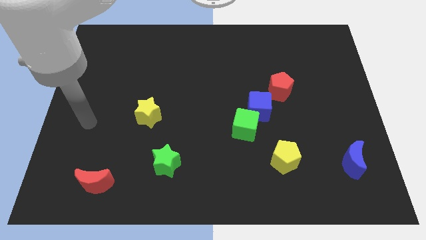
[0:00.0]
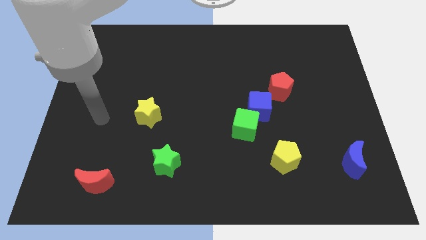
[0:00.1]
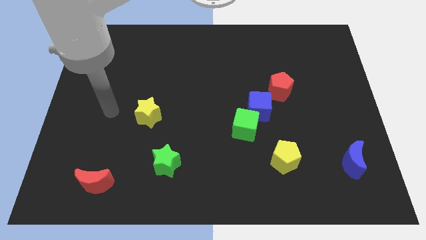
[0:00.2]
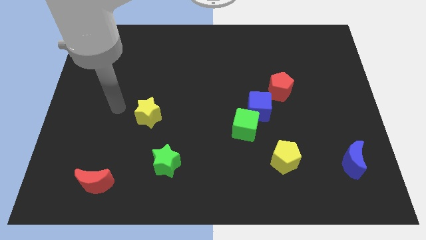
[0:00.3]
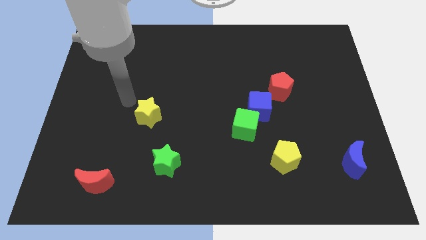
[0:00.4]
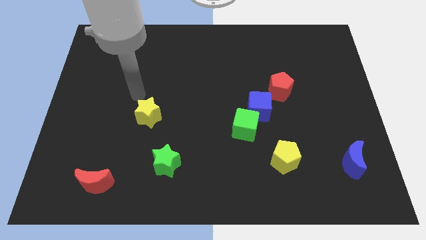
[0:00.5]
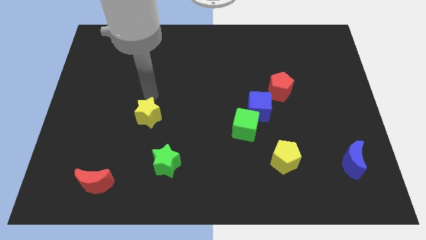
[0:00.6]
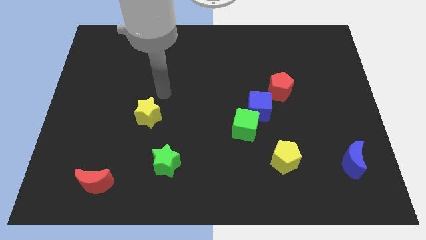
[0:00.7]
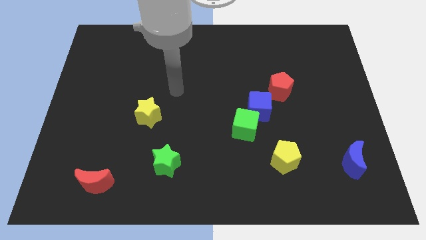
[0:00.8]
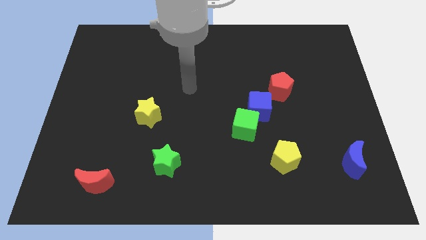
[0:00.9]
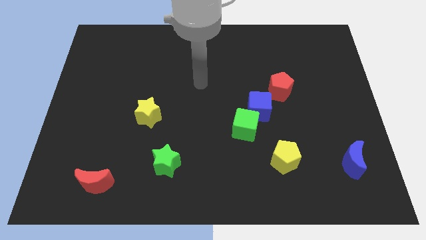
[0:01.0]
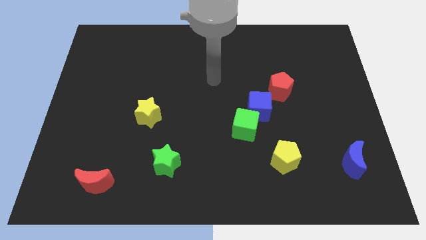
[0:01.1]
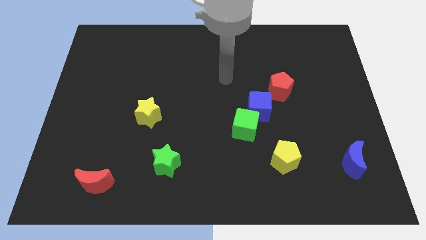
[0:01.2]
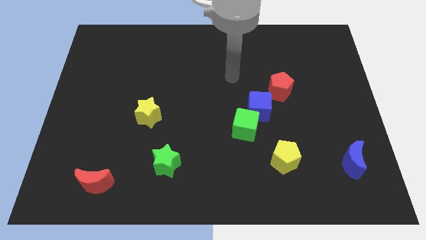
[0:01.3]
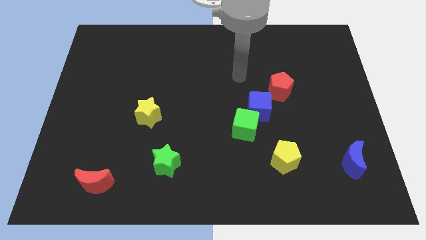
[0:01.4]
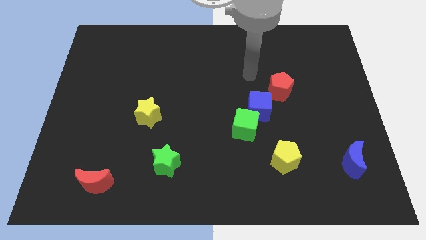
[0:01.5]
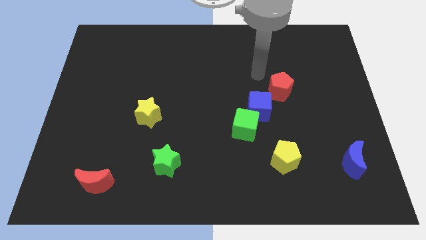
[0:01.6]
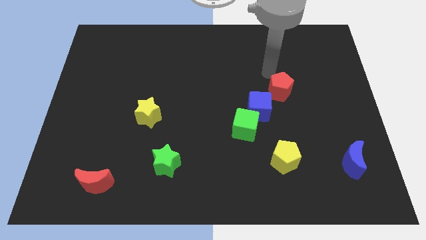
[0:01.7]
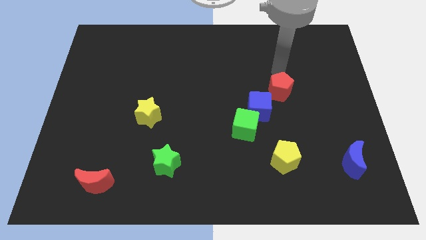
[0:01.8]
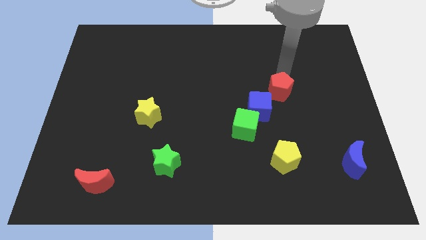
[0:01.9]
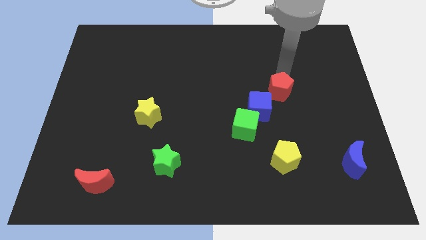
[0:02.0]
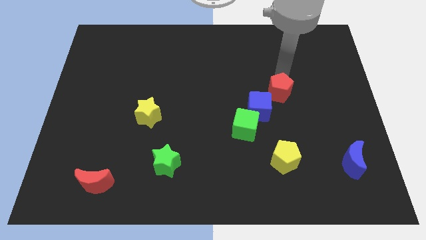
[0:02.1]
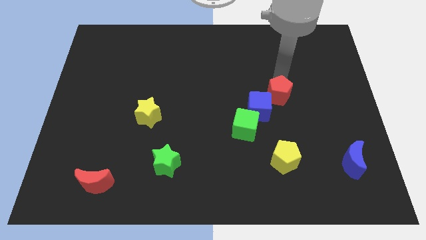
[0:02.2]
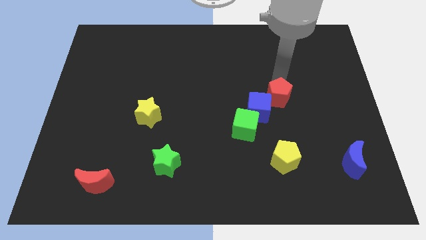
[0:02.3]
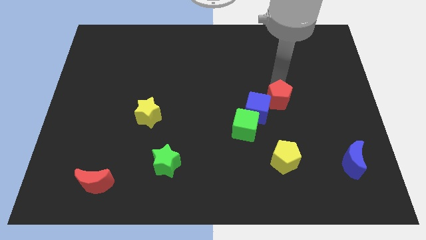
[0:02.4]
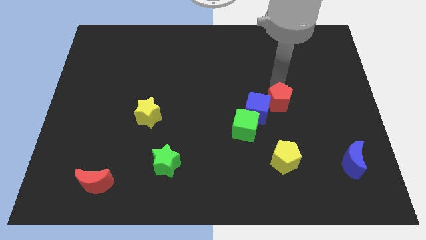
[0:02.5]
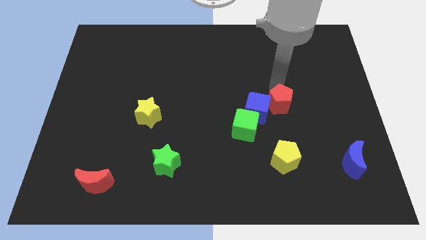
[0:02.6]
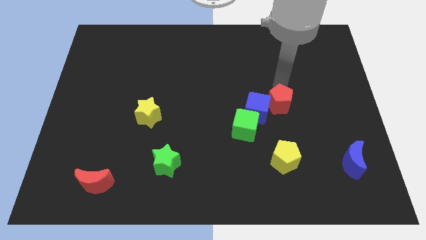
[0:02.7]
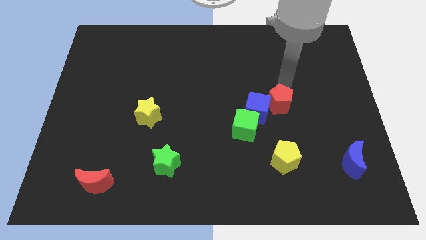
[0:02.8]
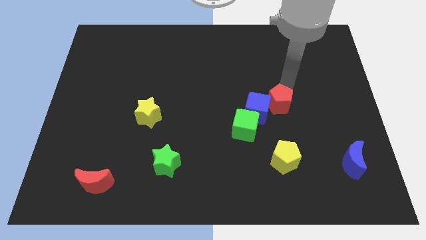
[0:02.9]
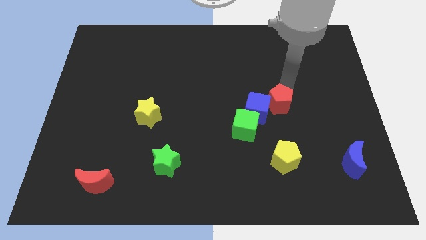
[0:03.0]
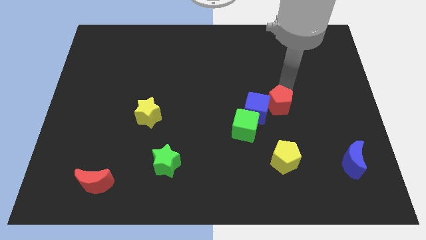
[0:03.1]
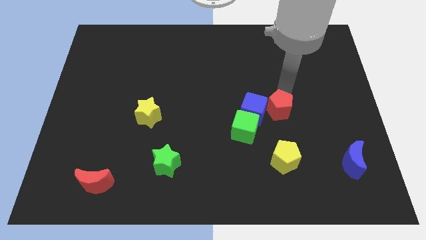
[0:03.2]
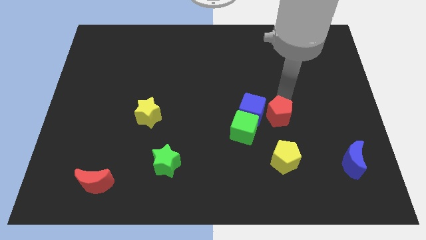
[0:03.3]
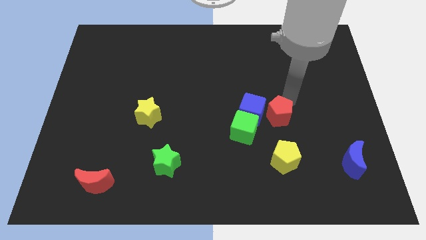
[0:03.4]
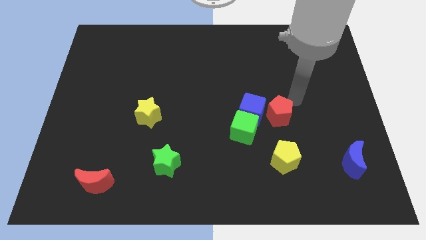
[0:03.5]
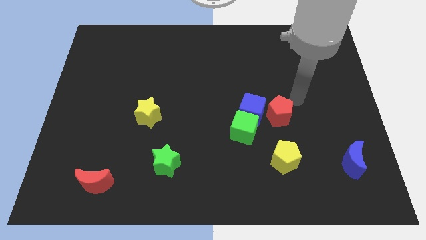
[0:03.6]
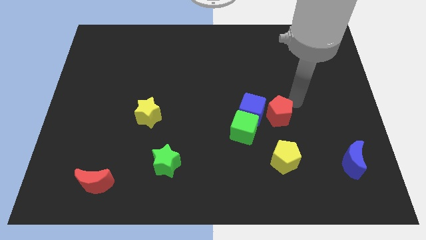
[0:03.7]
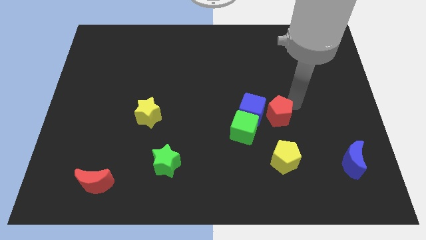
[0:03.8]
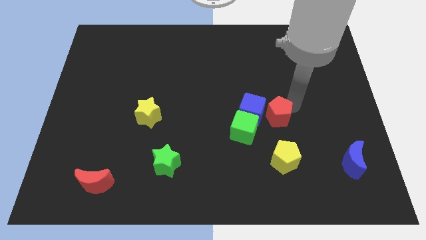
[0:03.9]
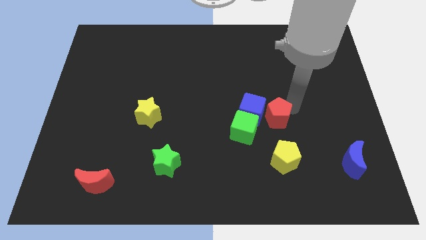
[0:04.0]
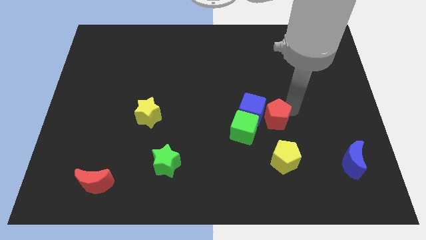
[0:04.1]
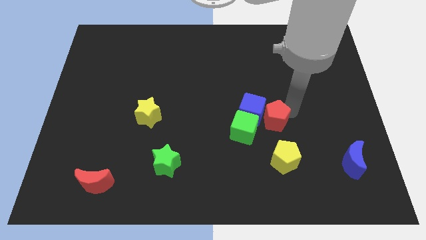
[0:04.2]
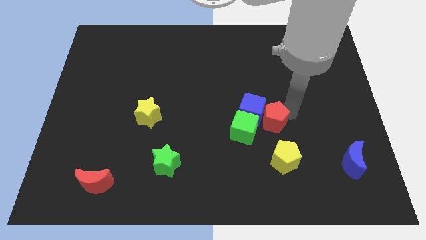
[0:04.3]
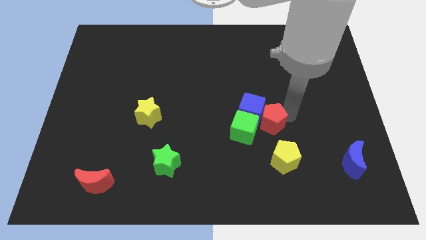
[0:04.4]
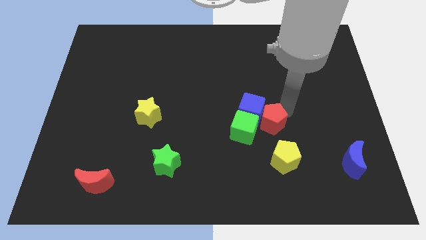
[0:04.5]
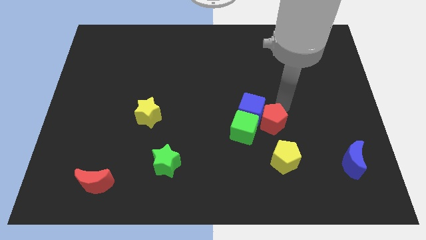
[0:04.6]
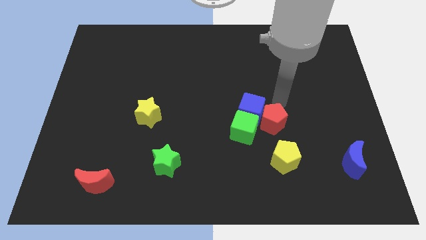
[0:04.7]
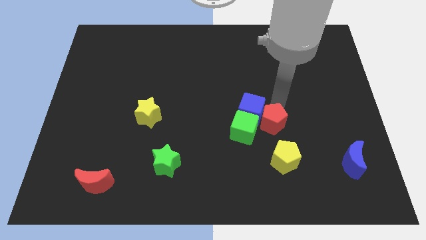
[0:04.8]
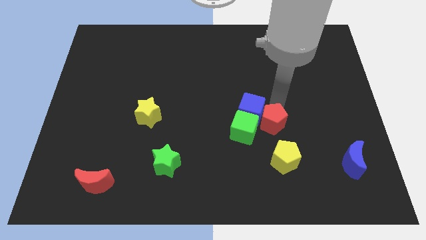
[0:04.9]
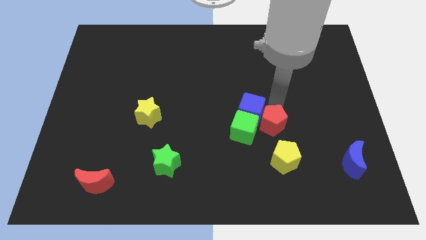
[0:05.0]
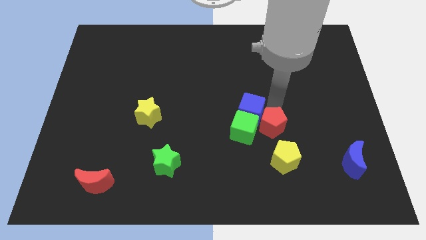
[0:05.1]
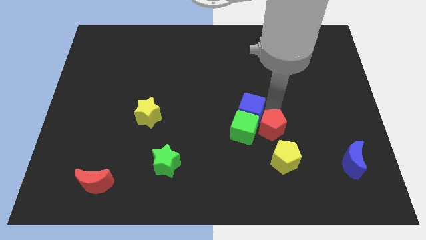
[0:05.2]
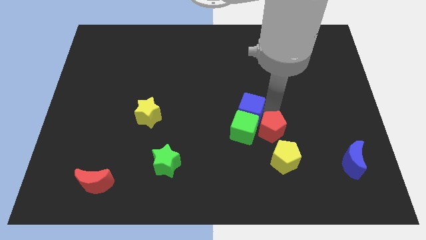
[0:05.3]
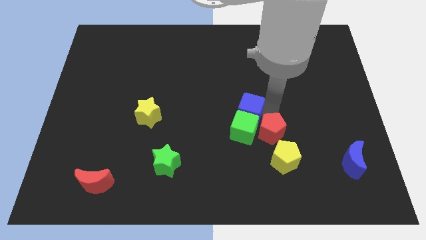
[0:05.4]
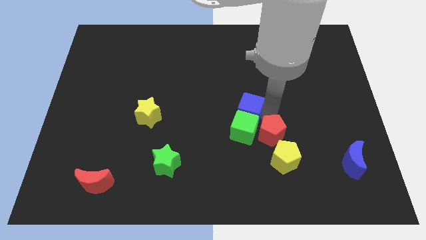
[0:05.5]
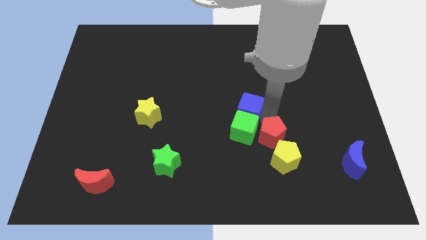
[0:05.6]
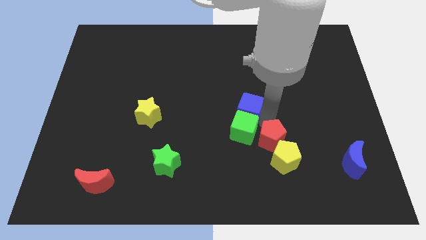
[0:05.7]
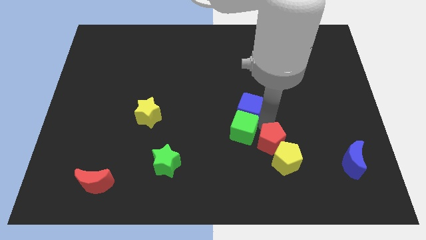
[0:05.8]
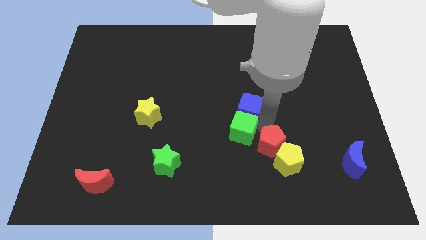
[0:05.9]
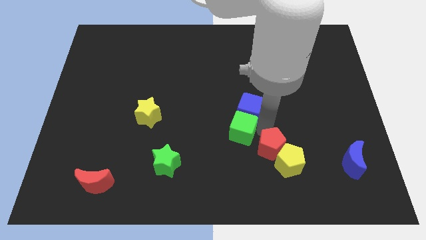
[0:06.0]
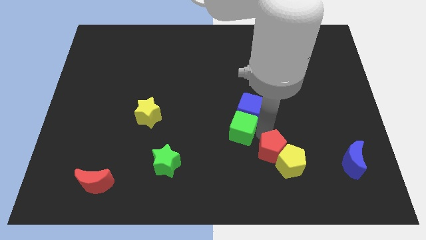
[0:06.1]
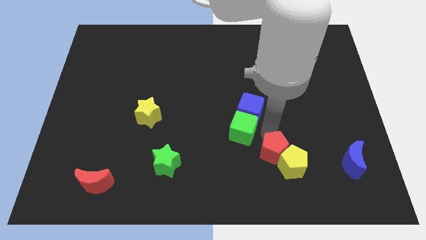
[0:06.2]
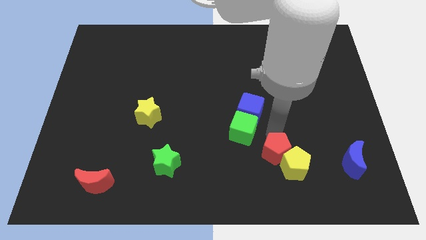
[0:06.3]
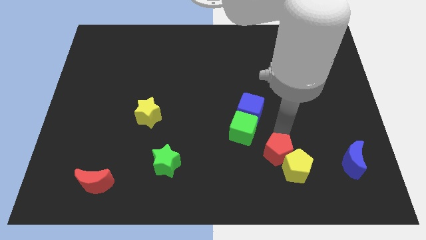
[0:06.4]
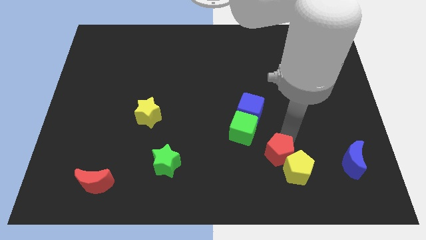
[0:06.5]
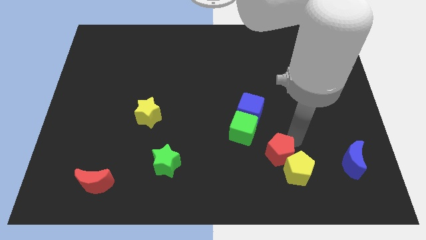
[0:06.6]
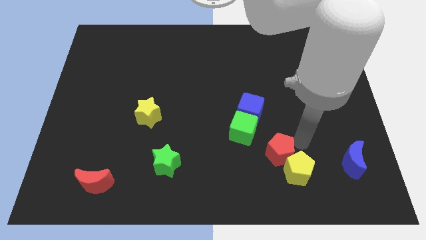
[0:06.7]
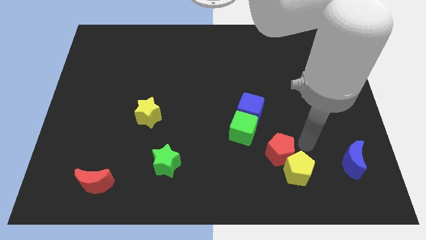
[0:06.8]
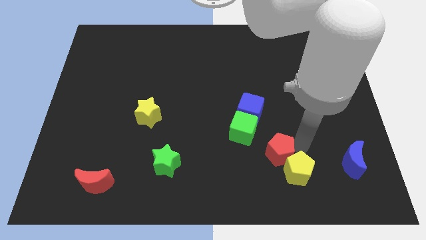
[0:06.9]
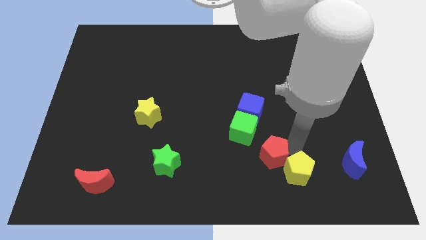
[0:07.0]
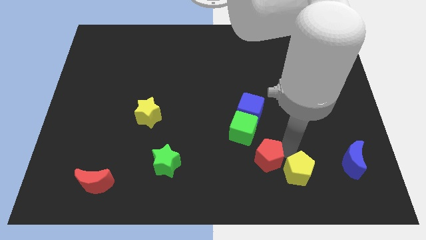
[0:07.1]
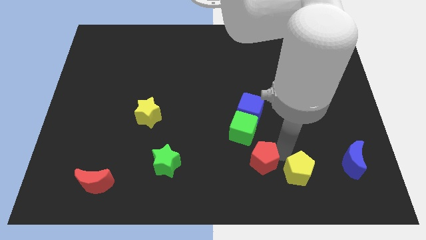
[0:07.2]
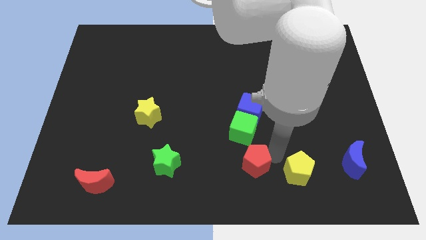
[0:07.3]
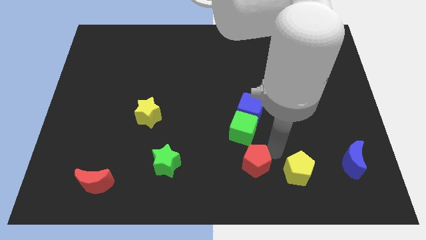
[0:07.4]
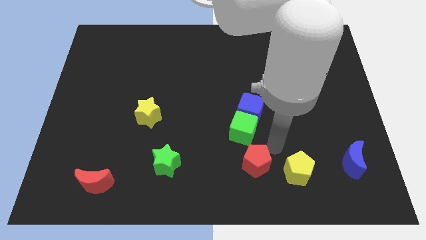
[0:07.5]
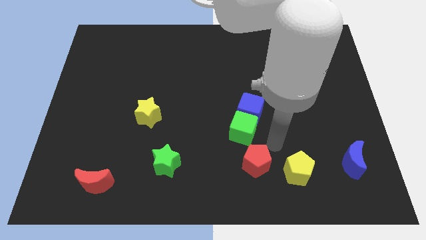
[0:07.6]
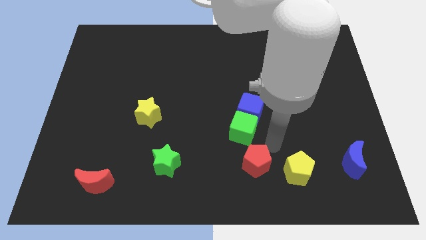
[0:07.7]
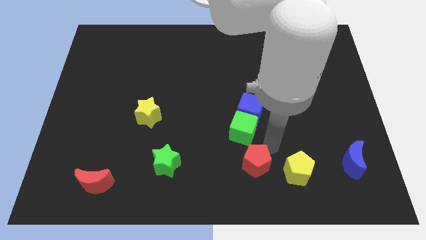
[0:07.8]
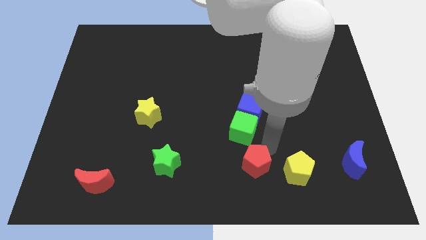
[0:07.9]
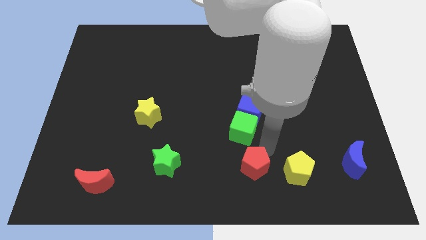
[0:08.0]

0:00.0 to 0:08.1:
move the red pentagon to the bottom
